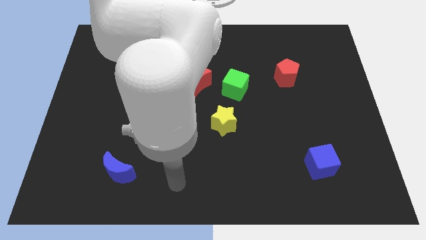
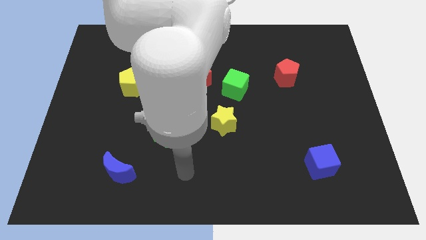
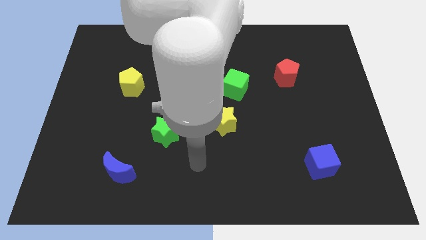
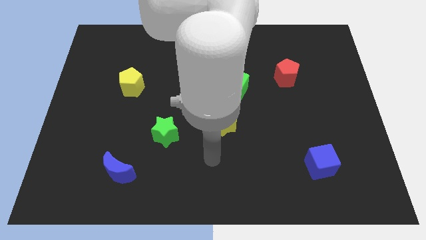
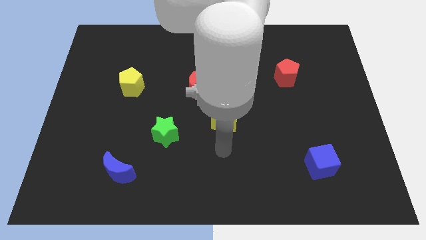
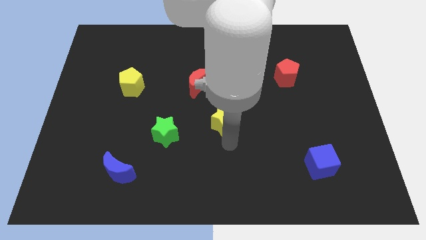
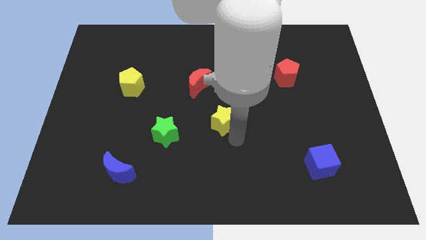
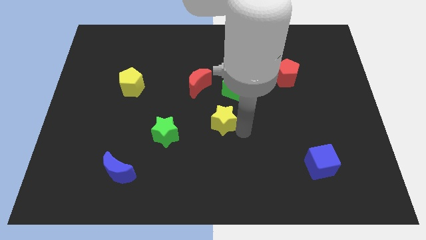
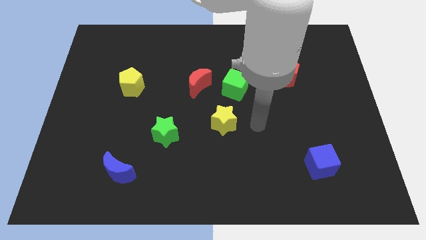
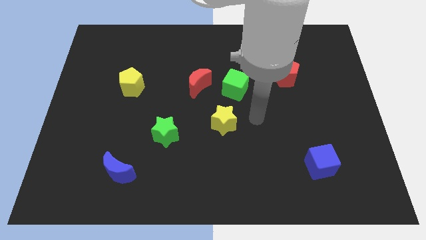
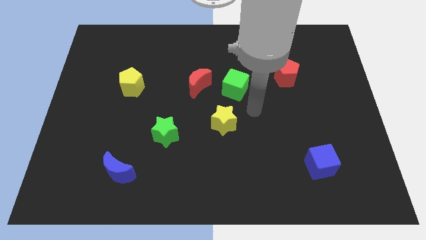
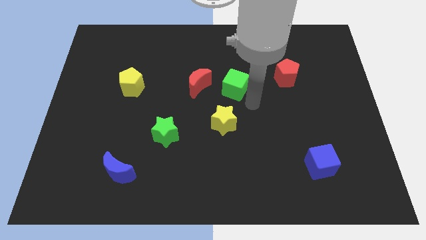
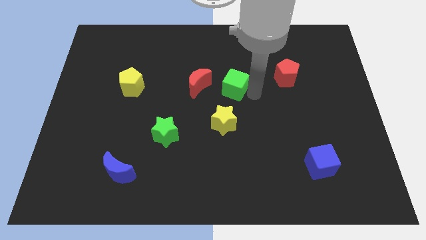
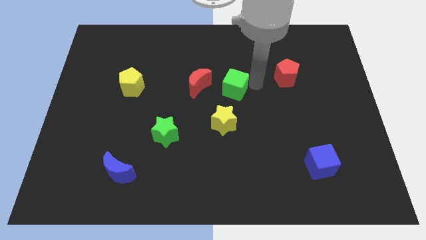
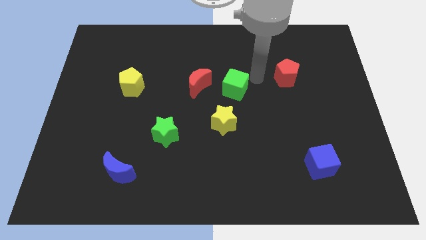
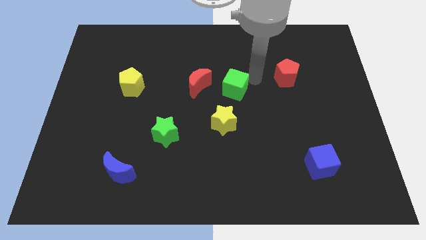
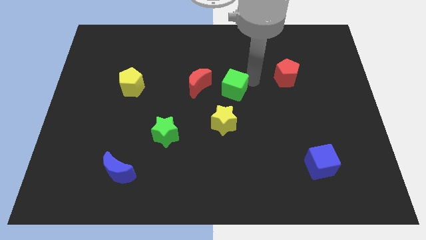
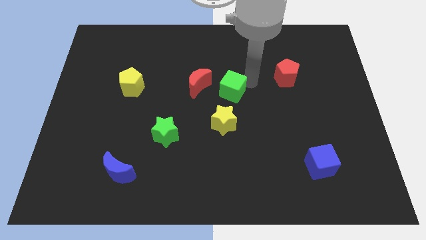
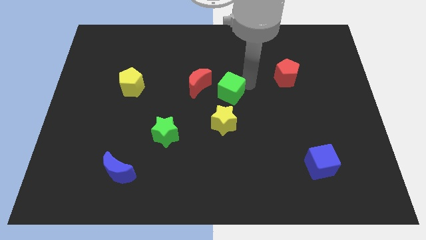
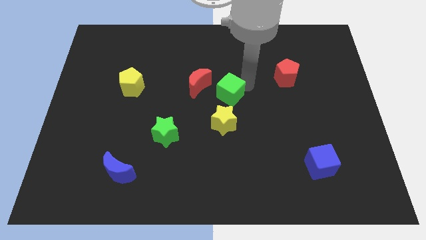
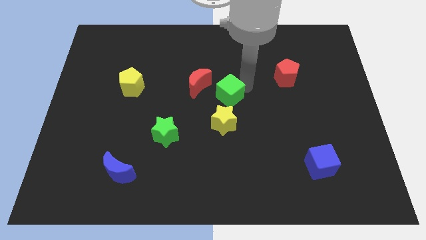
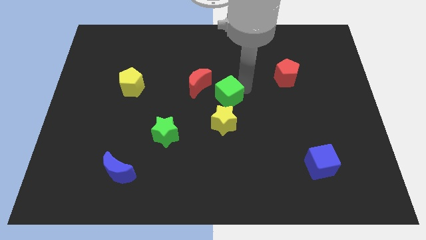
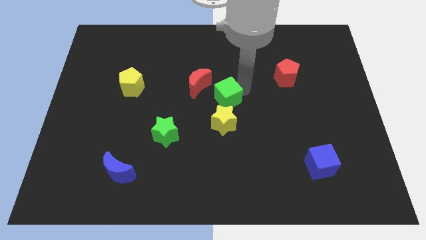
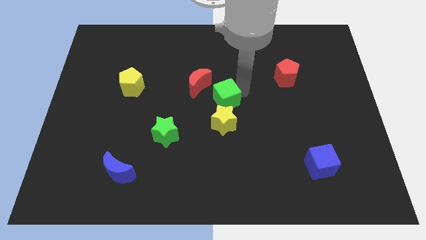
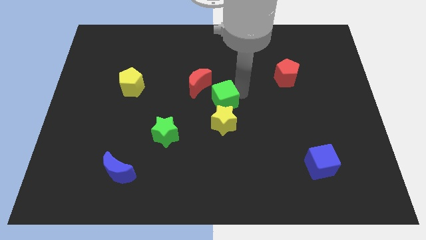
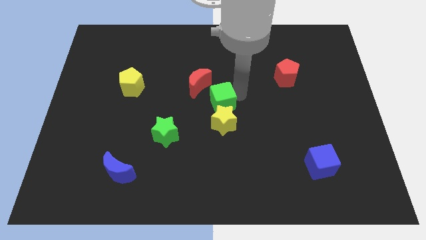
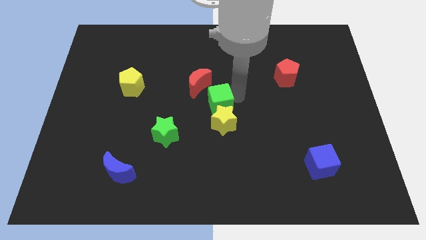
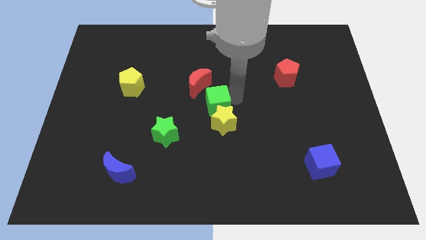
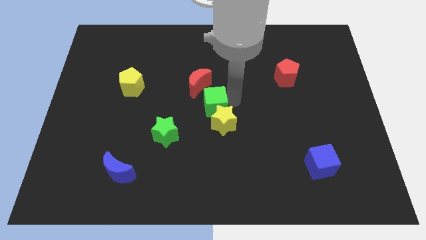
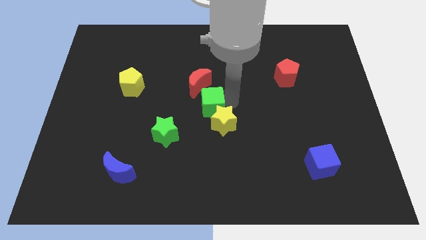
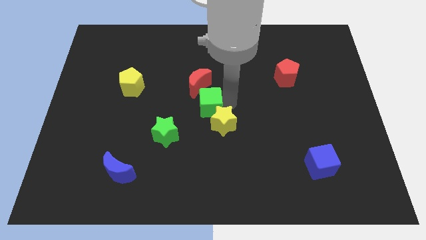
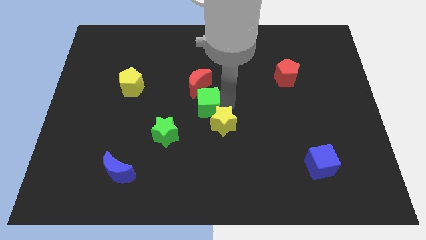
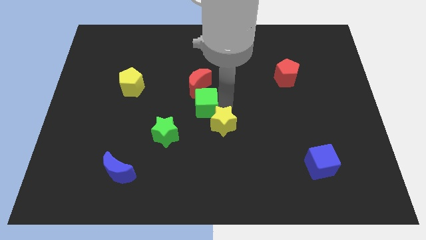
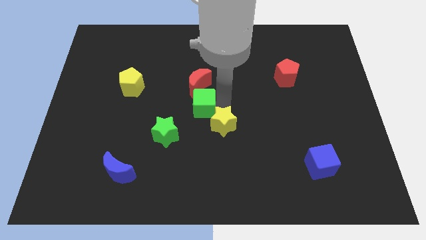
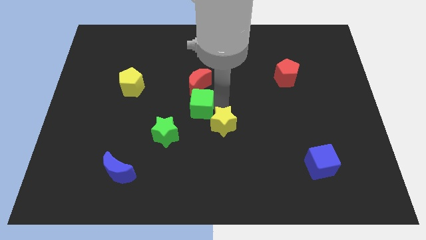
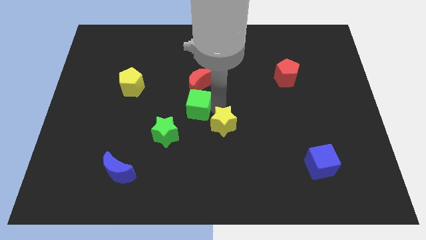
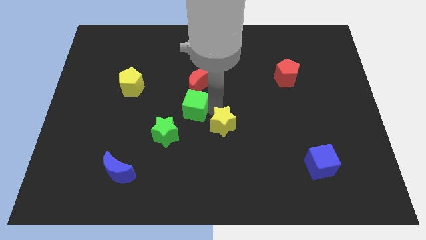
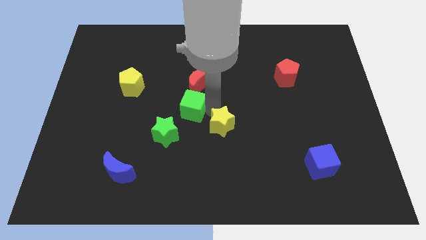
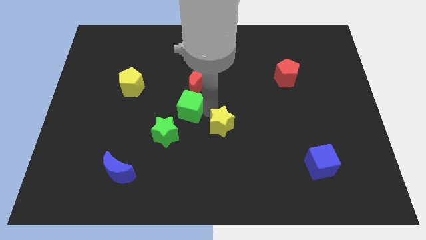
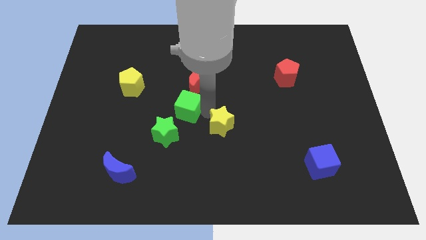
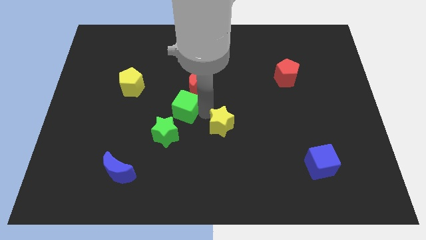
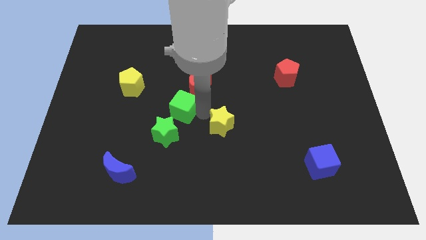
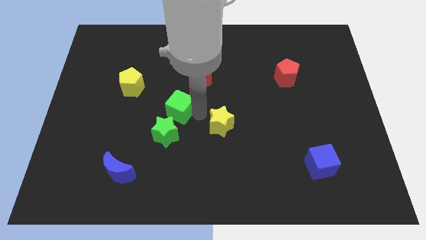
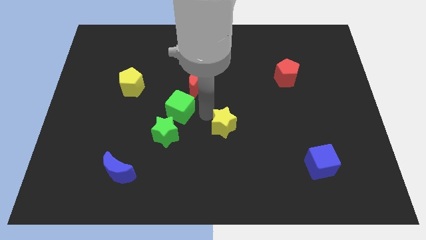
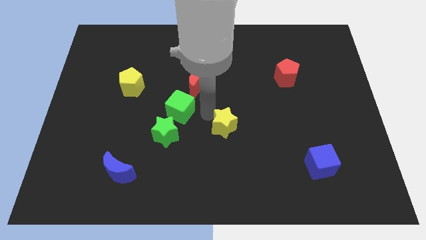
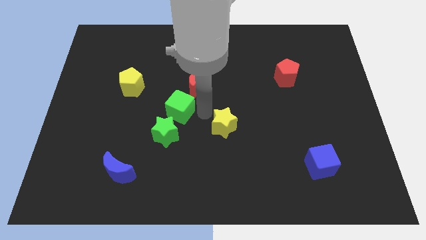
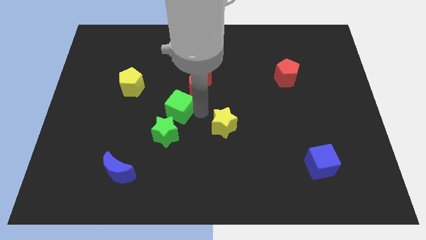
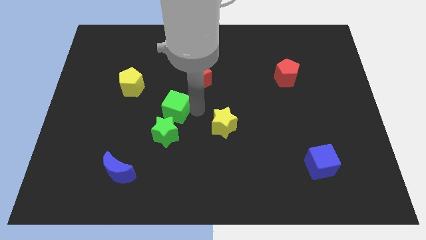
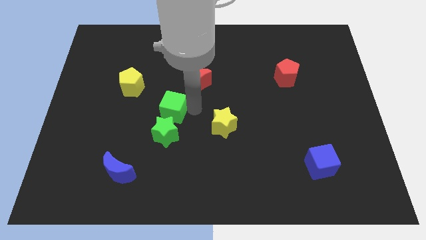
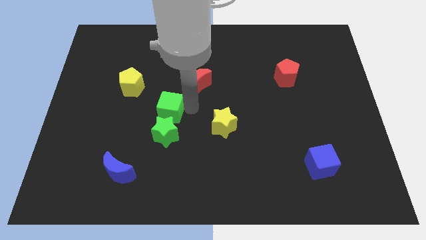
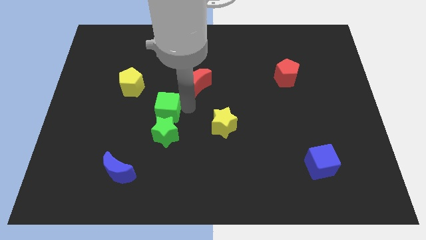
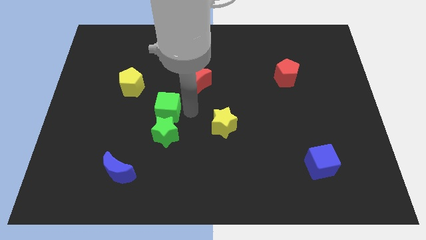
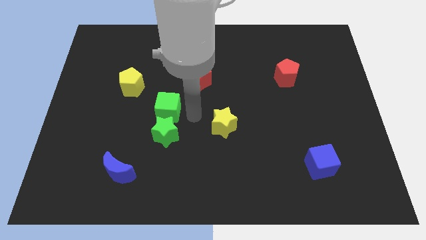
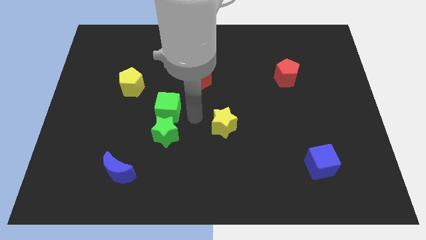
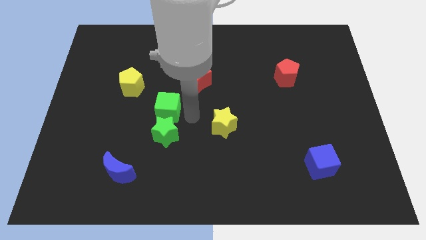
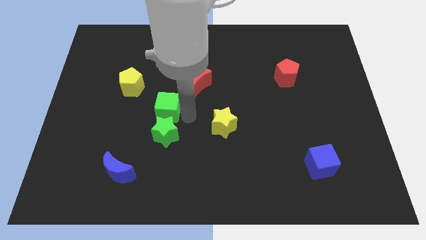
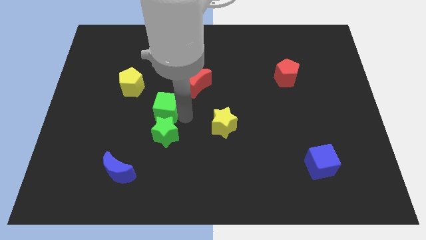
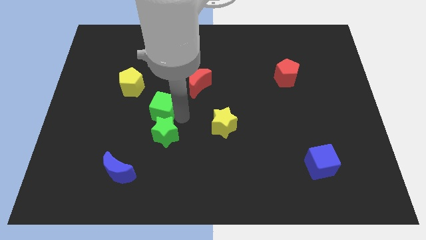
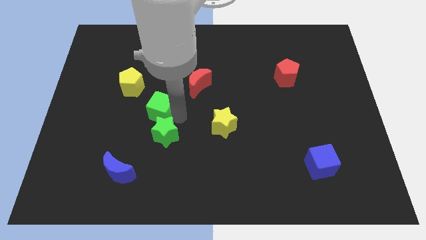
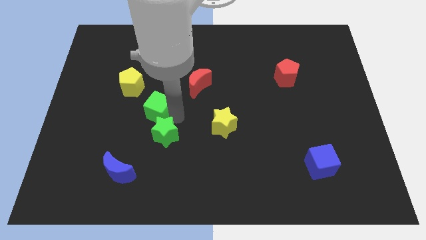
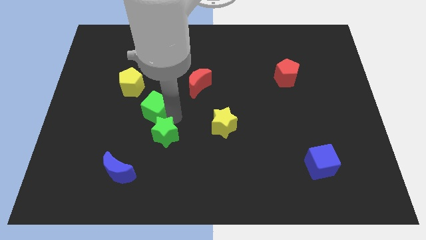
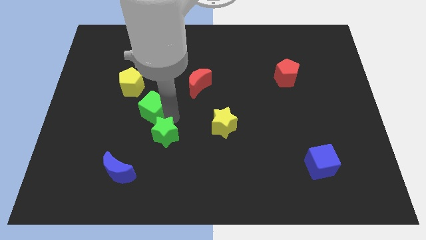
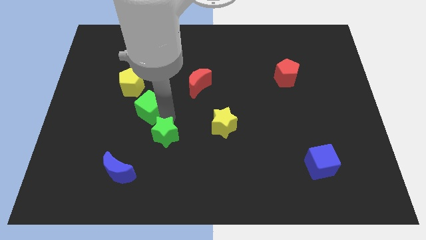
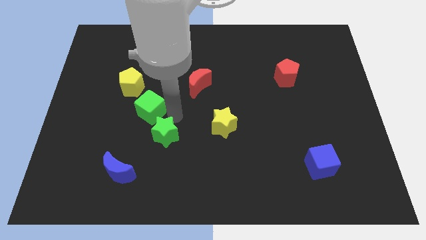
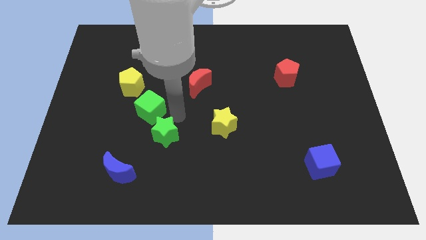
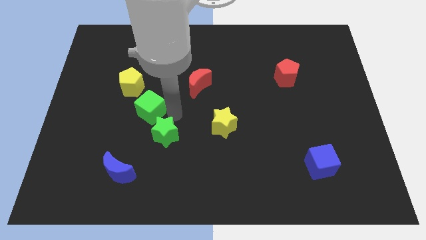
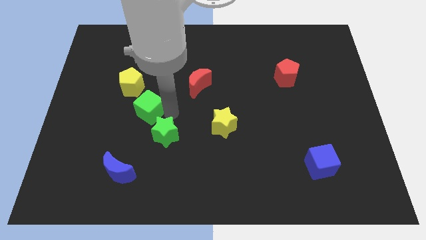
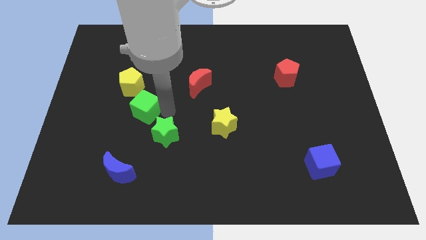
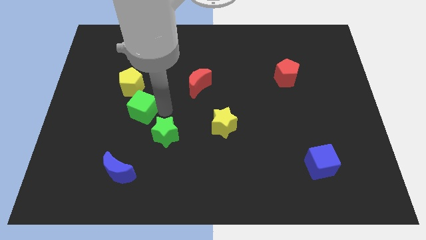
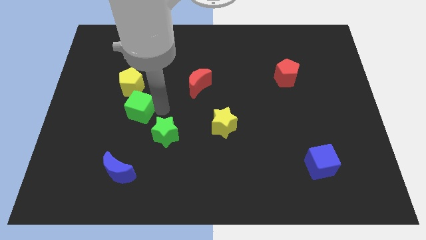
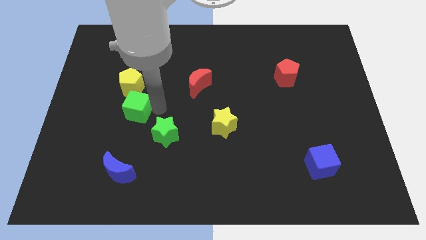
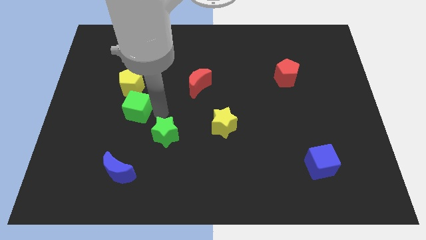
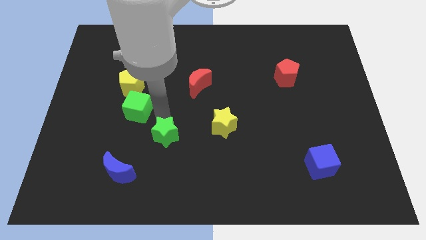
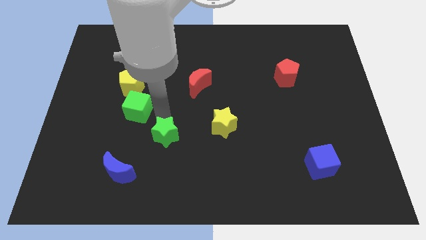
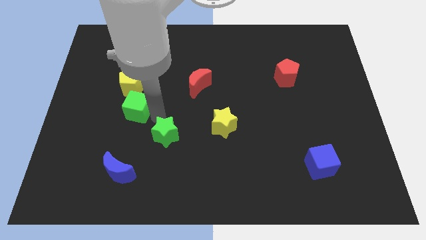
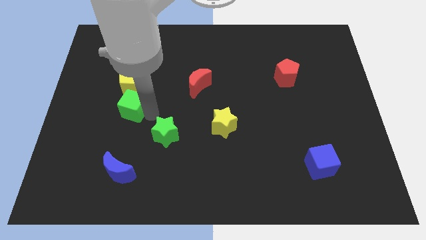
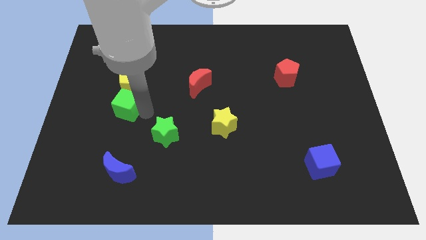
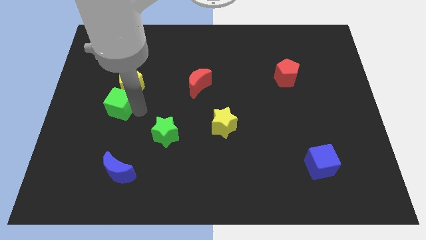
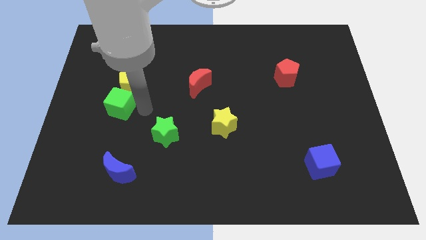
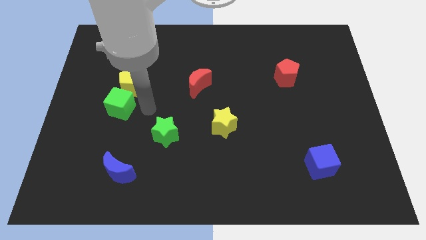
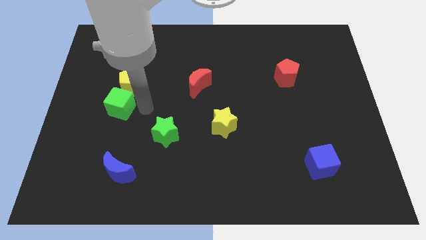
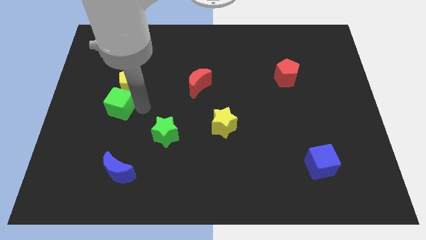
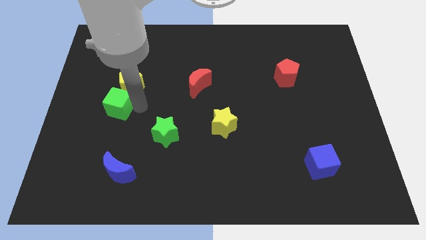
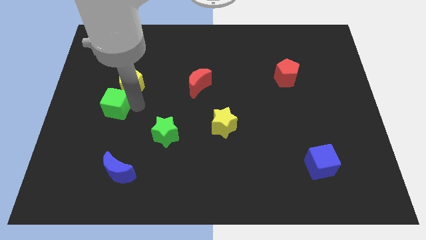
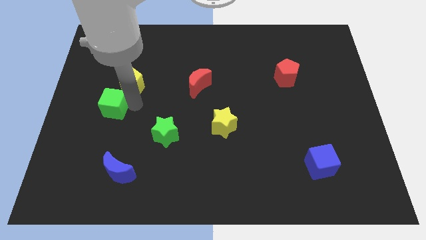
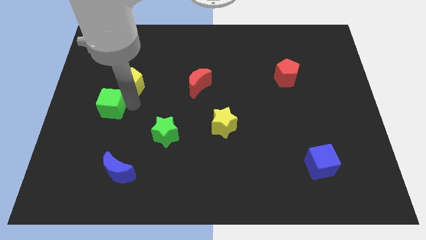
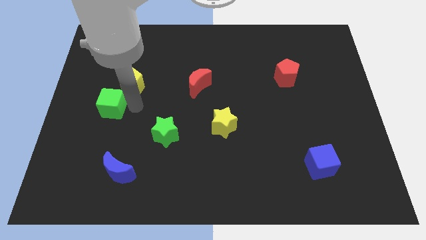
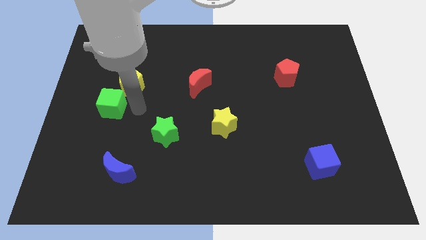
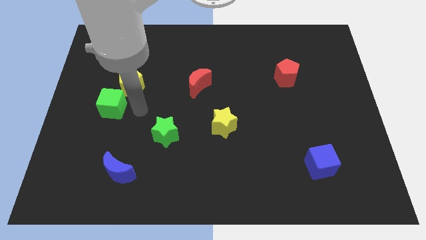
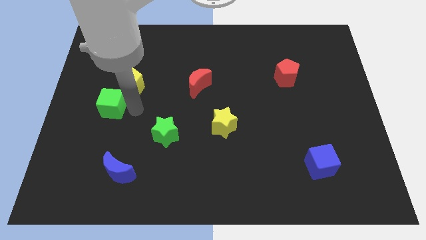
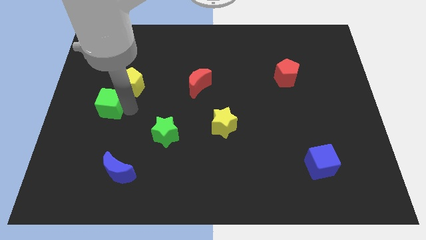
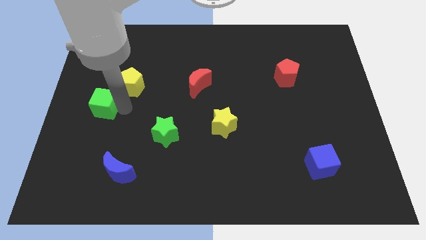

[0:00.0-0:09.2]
slide the green cube to the left side of the board
